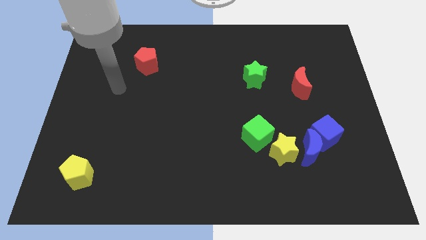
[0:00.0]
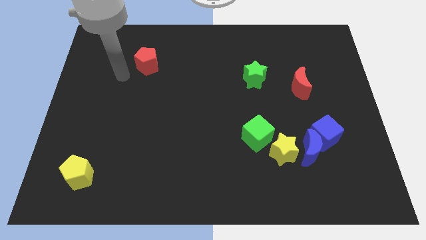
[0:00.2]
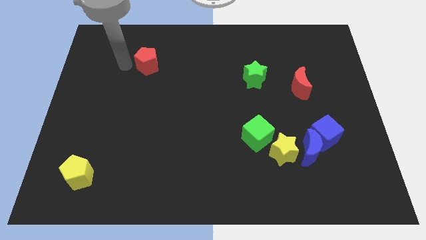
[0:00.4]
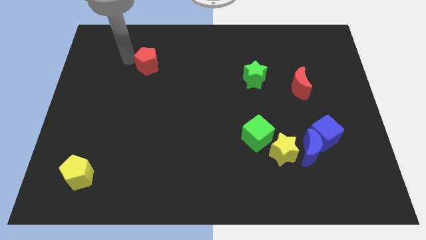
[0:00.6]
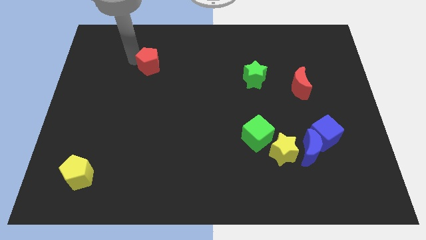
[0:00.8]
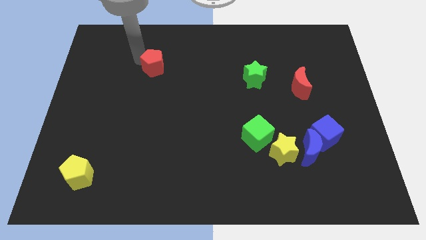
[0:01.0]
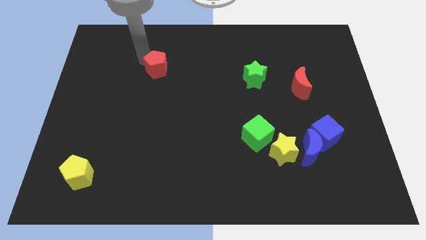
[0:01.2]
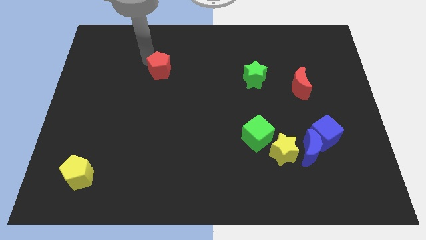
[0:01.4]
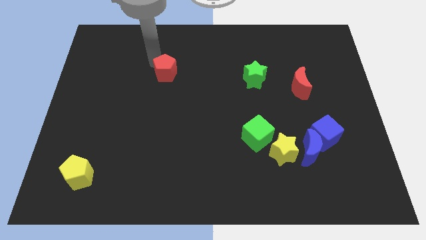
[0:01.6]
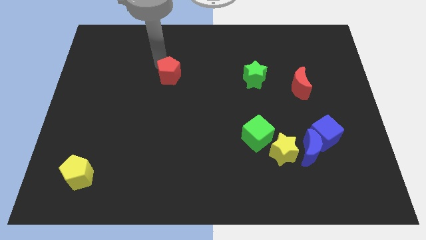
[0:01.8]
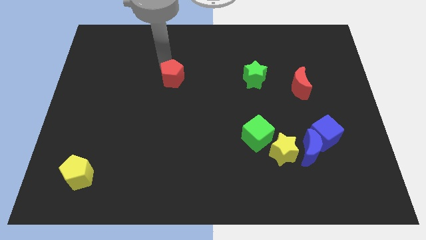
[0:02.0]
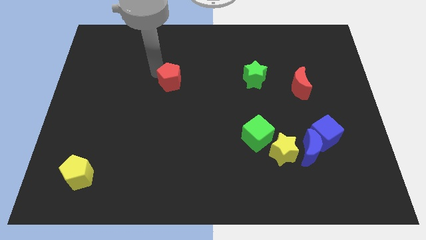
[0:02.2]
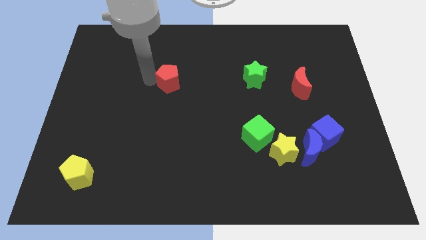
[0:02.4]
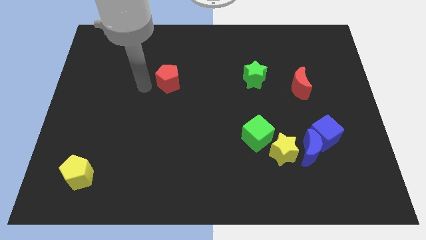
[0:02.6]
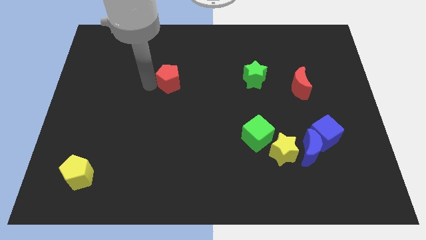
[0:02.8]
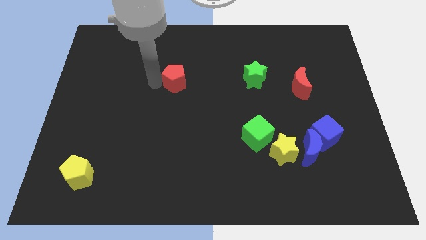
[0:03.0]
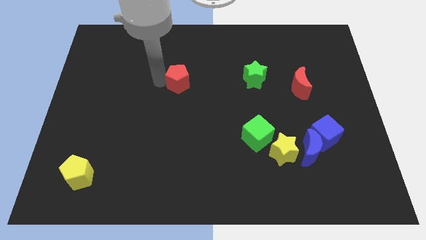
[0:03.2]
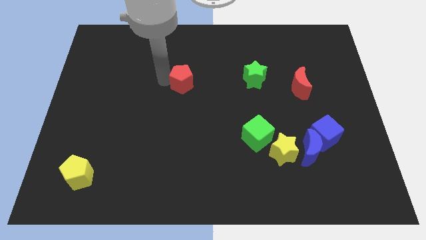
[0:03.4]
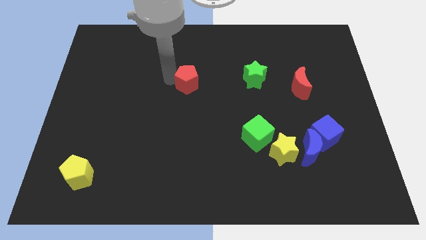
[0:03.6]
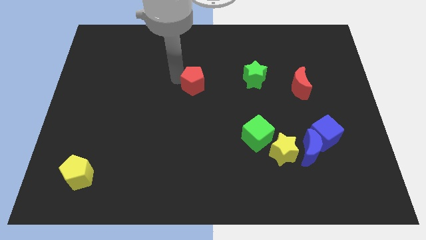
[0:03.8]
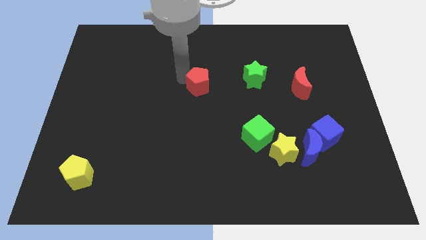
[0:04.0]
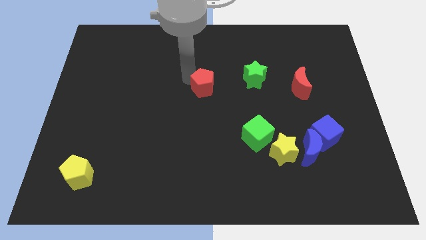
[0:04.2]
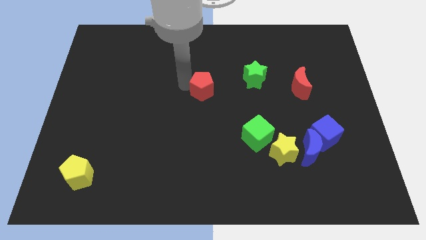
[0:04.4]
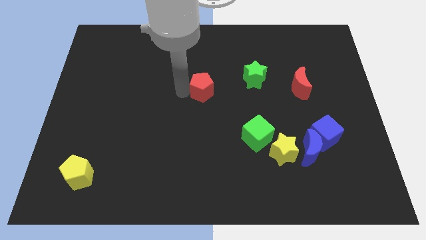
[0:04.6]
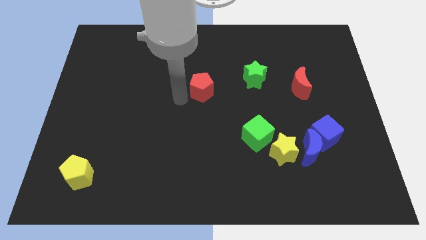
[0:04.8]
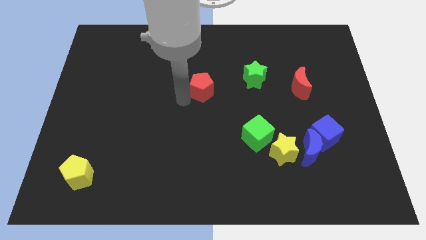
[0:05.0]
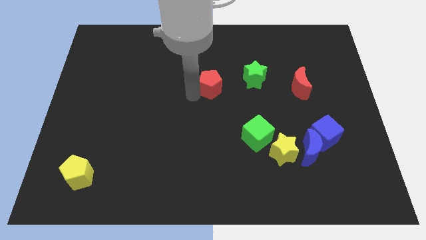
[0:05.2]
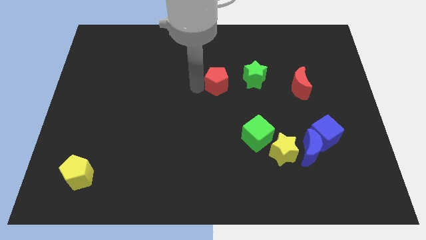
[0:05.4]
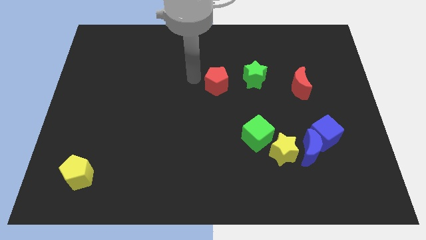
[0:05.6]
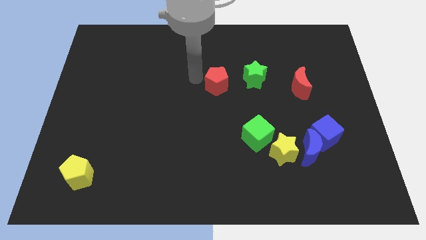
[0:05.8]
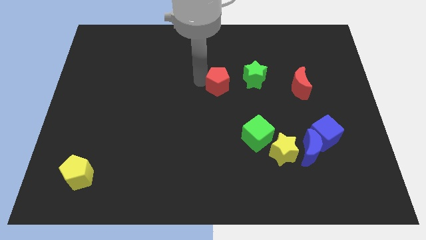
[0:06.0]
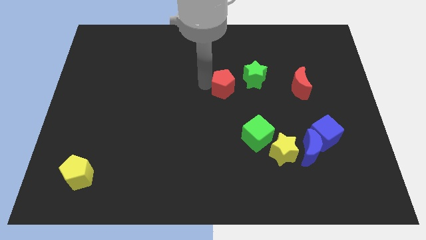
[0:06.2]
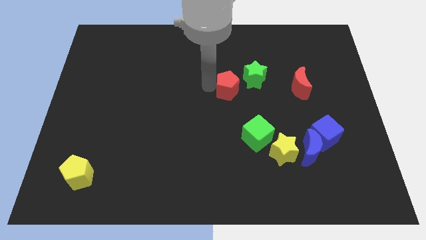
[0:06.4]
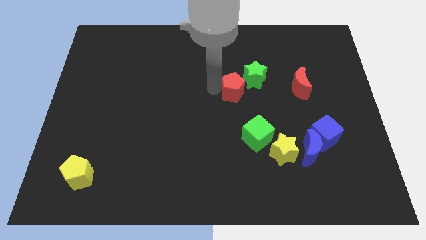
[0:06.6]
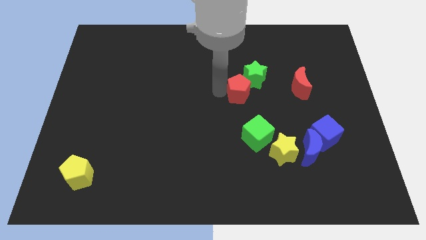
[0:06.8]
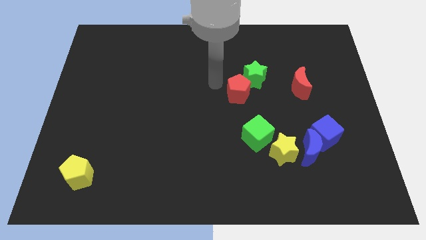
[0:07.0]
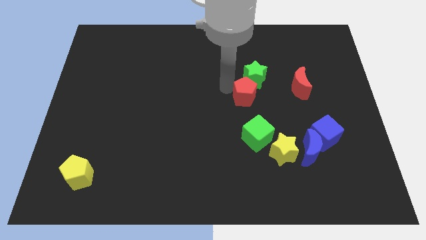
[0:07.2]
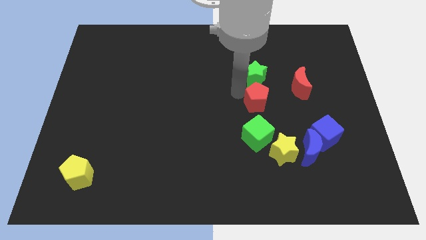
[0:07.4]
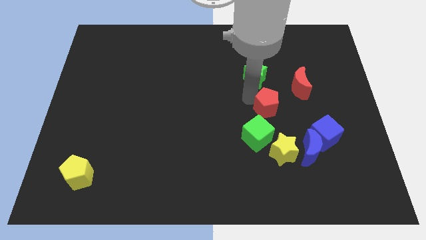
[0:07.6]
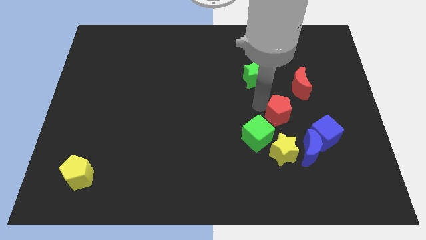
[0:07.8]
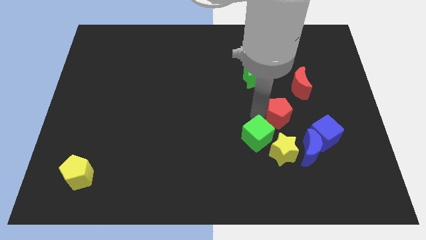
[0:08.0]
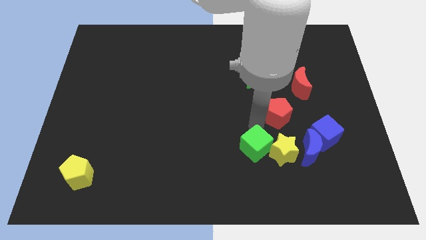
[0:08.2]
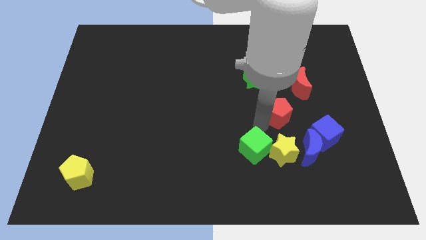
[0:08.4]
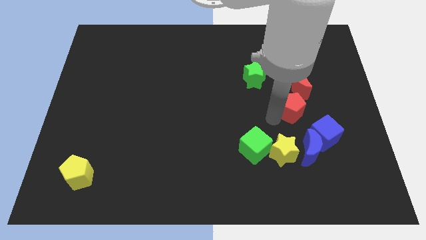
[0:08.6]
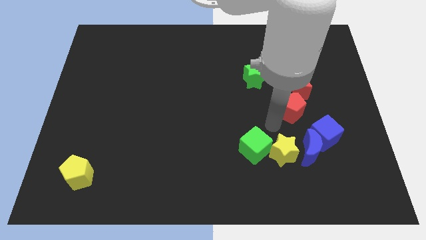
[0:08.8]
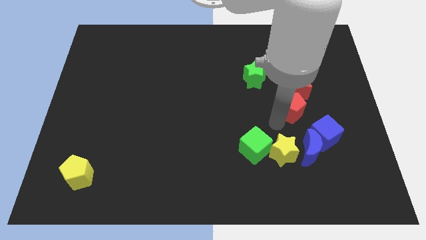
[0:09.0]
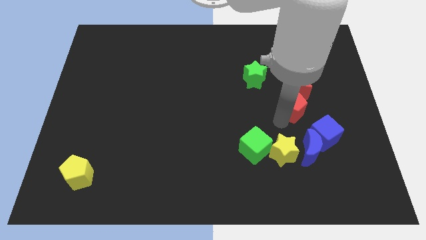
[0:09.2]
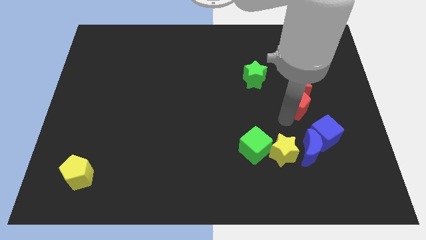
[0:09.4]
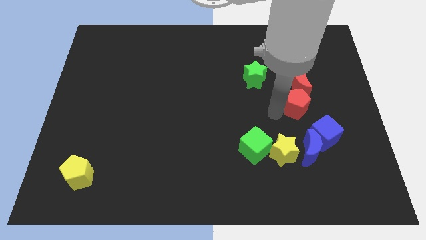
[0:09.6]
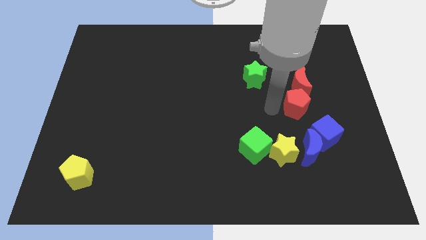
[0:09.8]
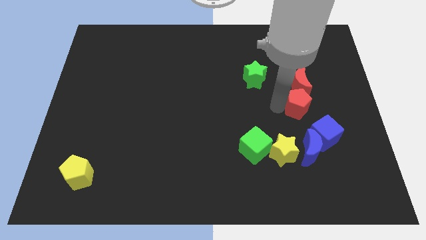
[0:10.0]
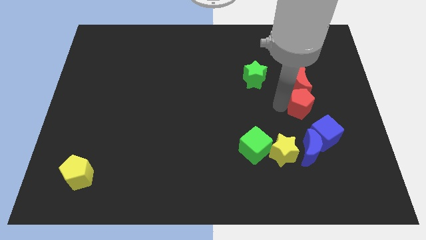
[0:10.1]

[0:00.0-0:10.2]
push the red pentagon diagonally down and to the right of the red moon

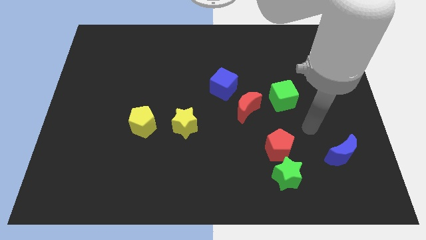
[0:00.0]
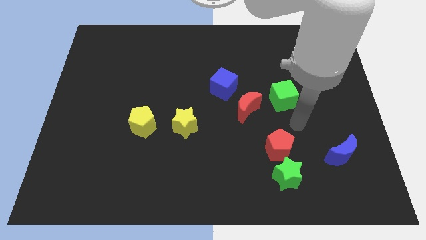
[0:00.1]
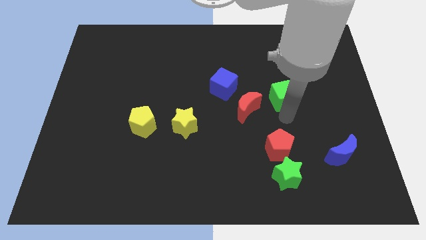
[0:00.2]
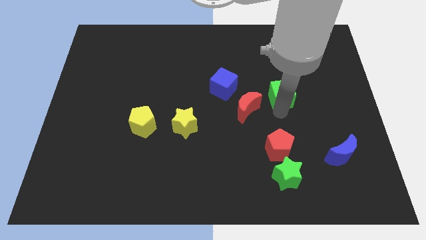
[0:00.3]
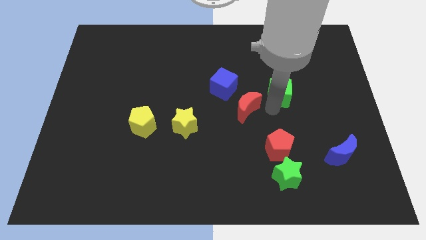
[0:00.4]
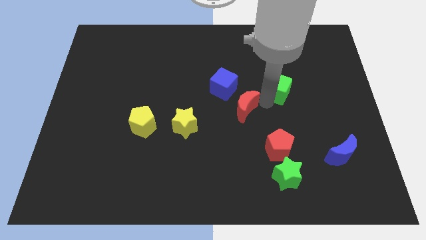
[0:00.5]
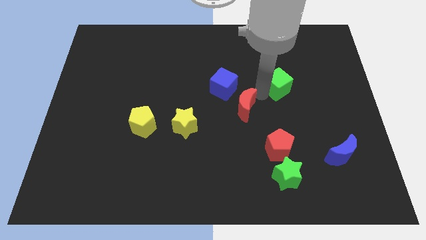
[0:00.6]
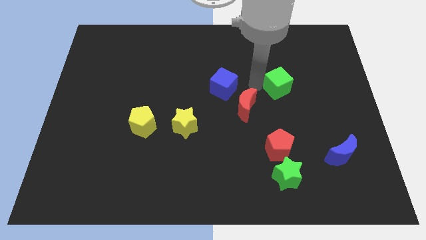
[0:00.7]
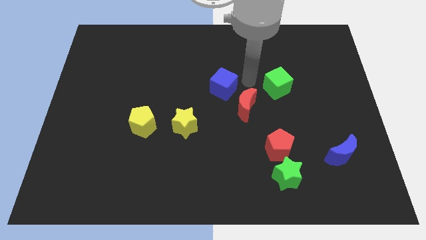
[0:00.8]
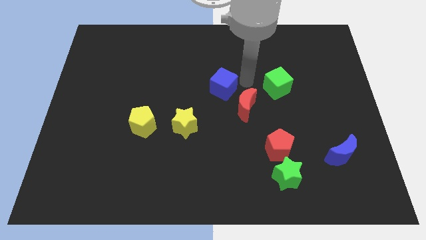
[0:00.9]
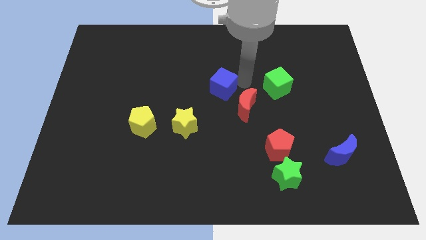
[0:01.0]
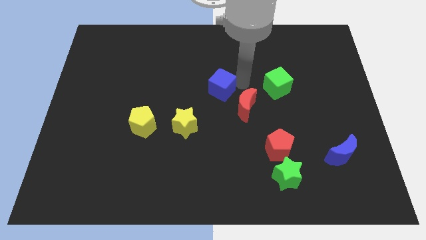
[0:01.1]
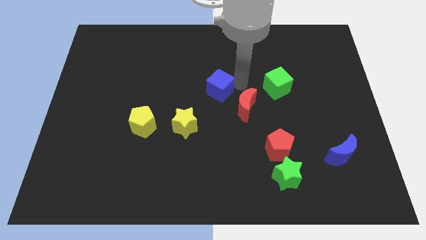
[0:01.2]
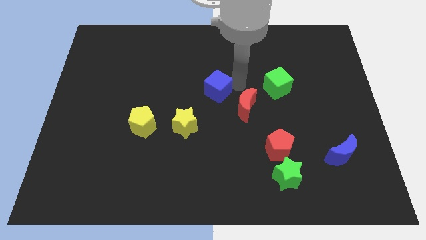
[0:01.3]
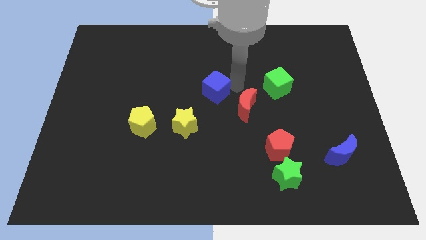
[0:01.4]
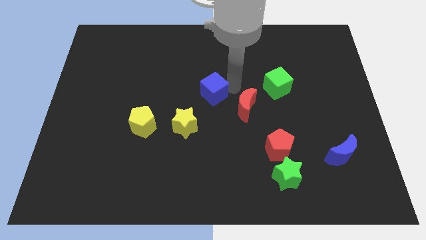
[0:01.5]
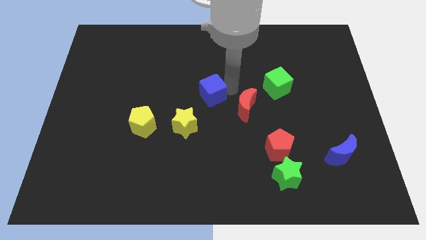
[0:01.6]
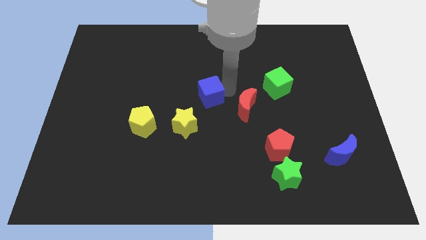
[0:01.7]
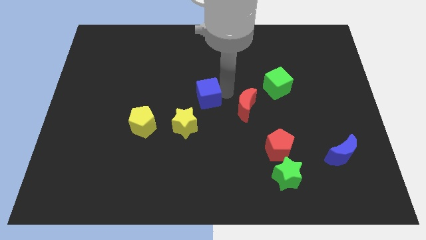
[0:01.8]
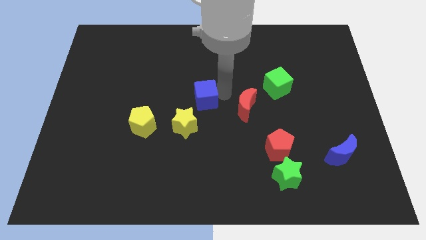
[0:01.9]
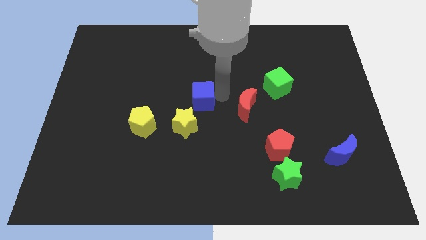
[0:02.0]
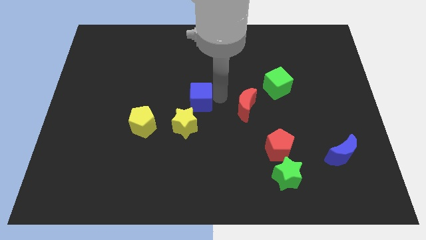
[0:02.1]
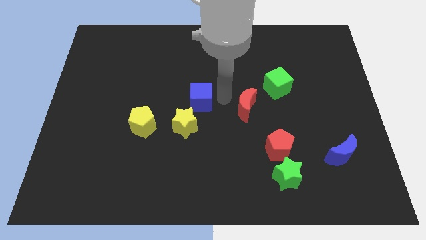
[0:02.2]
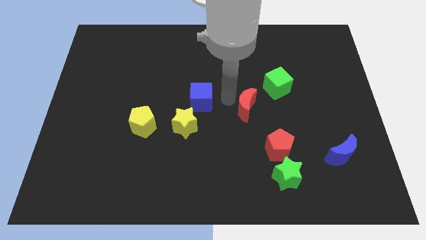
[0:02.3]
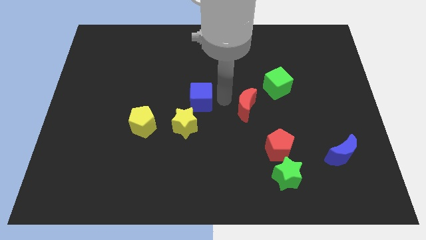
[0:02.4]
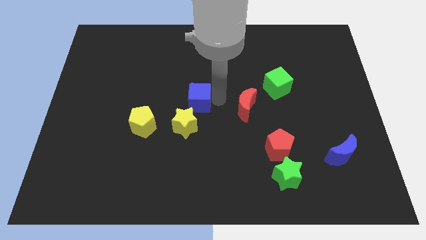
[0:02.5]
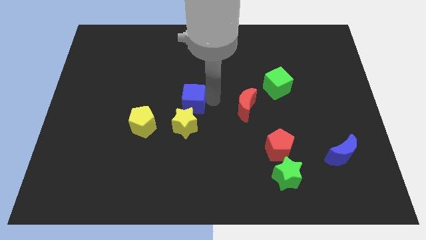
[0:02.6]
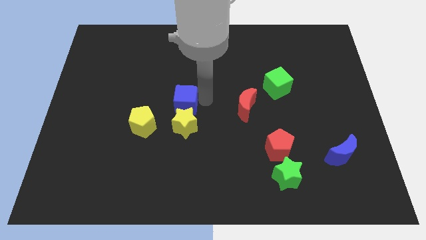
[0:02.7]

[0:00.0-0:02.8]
move the blue cube diagonally up and to the left of the yellow star

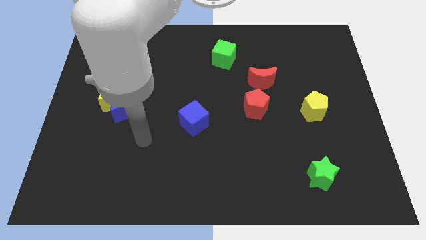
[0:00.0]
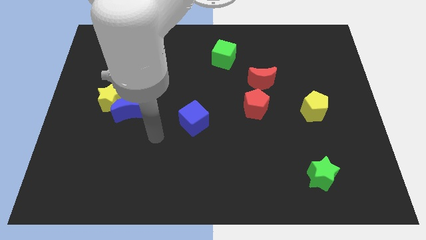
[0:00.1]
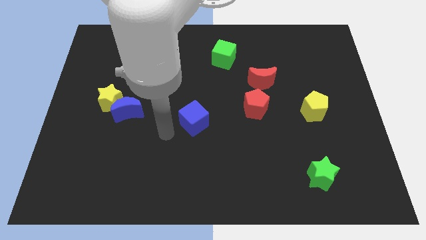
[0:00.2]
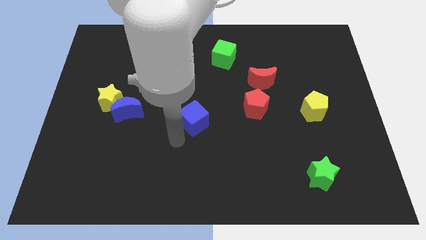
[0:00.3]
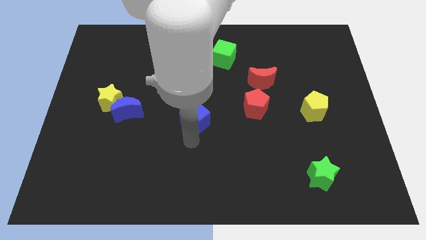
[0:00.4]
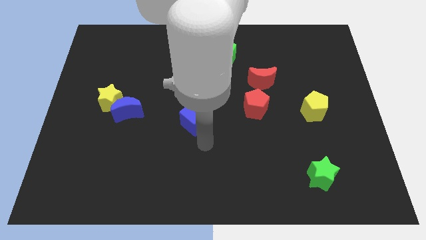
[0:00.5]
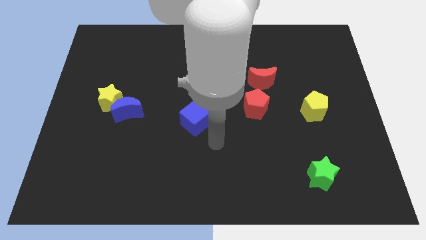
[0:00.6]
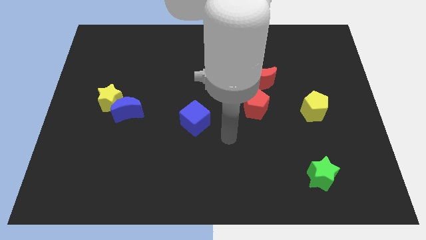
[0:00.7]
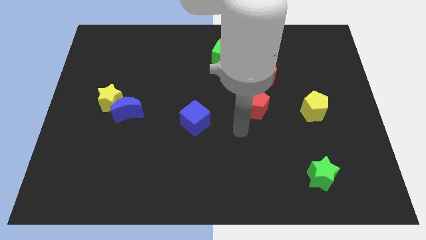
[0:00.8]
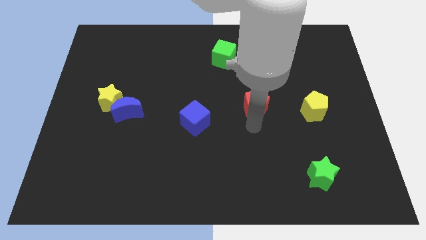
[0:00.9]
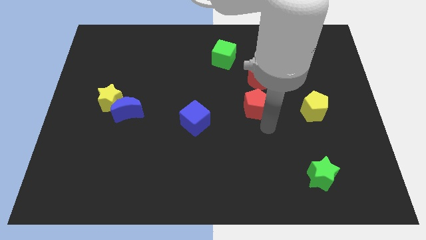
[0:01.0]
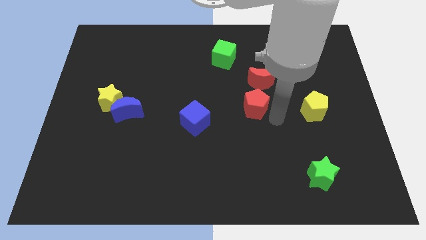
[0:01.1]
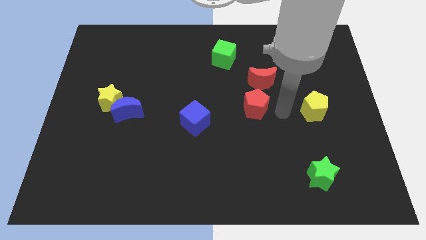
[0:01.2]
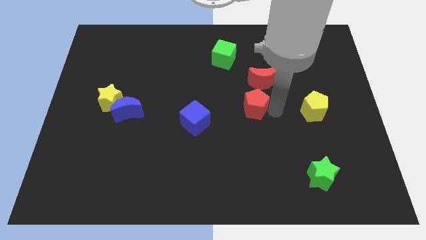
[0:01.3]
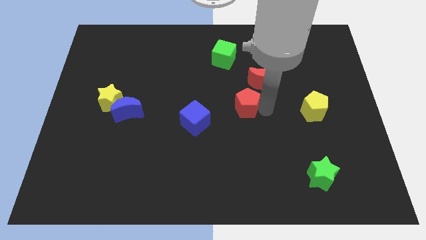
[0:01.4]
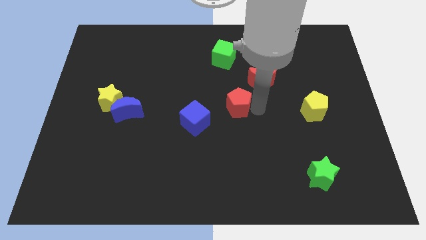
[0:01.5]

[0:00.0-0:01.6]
push the red pentagon diagonally up and to the right of the blue cube
